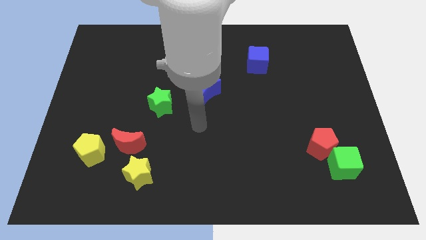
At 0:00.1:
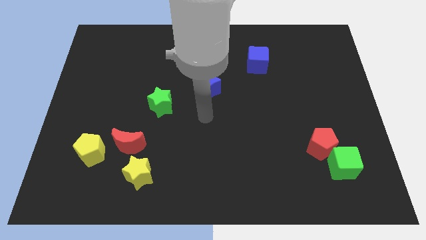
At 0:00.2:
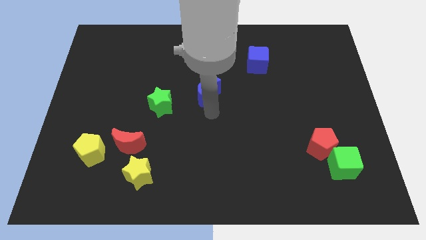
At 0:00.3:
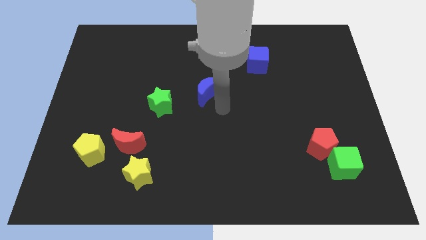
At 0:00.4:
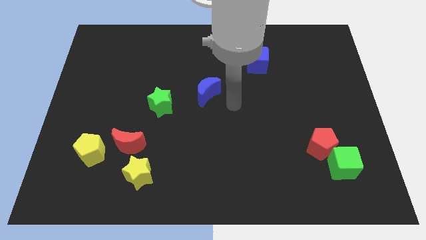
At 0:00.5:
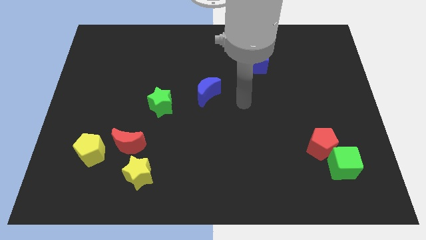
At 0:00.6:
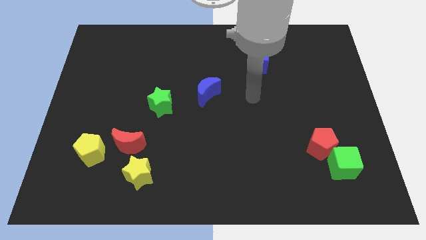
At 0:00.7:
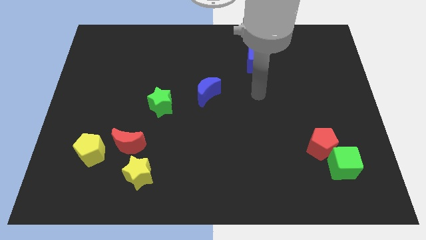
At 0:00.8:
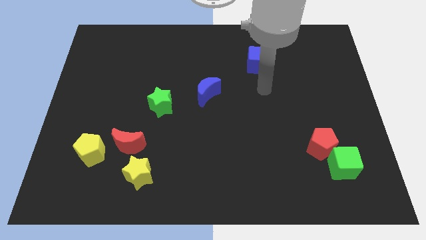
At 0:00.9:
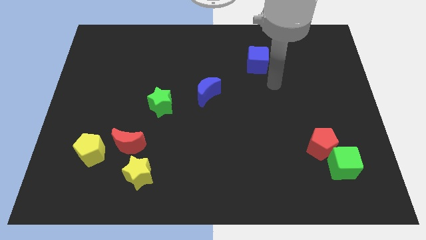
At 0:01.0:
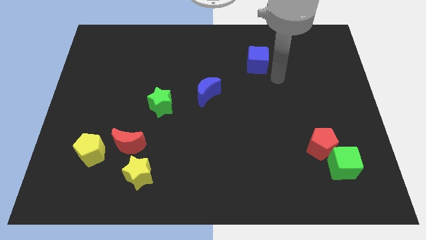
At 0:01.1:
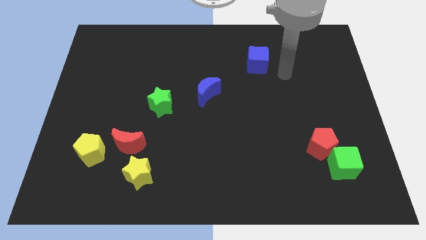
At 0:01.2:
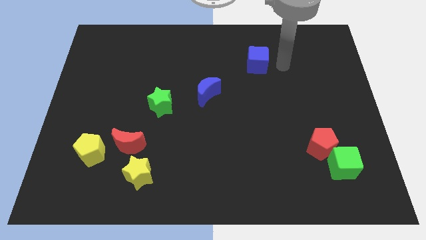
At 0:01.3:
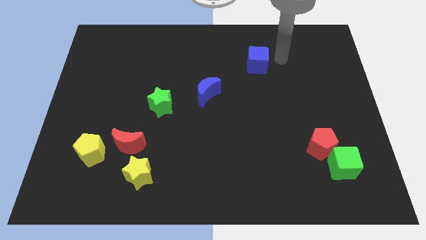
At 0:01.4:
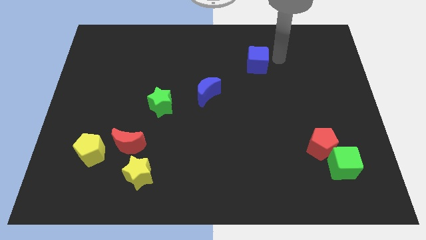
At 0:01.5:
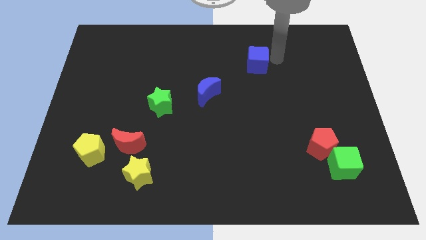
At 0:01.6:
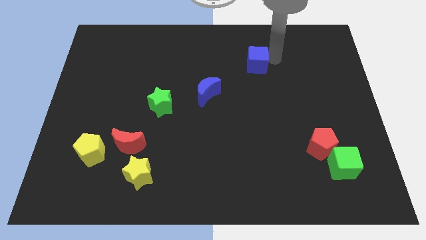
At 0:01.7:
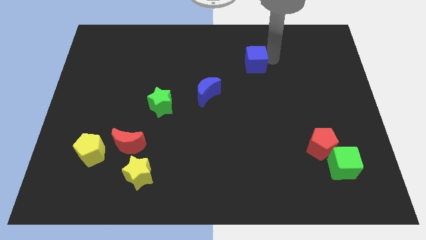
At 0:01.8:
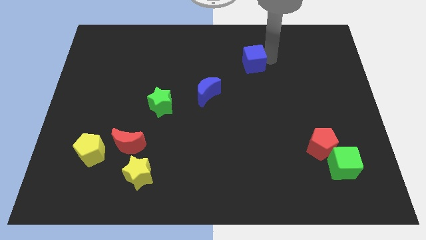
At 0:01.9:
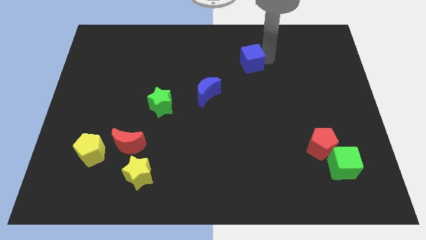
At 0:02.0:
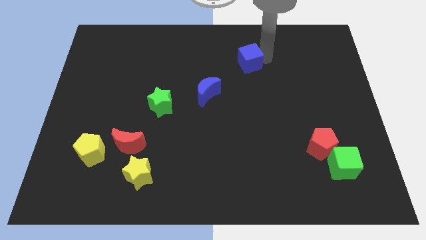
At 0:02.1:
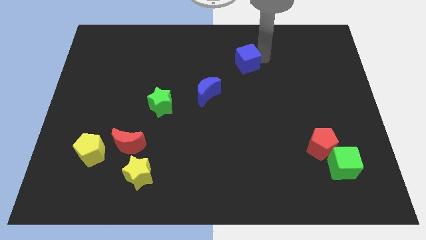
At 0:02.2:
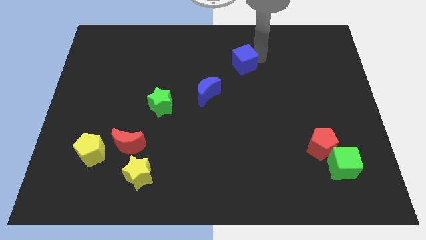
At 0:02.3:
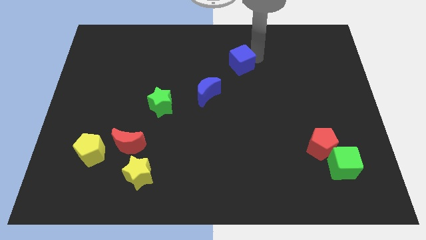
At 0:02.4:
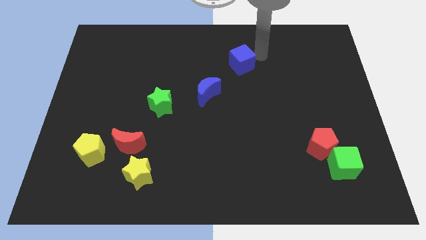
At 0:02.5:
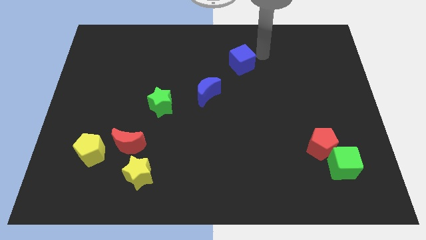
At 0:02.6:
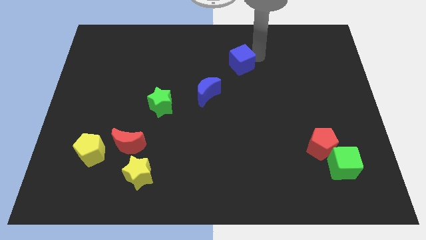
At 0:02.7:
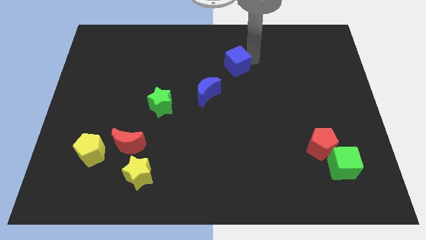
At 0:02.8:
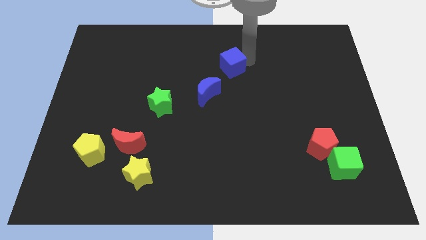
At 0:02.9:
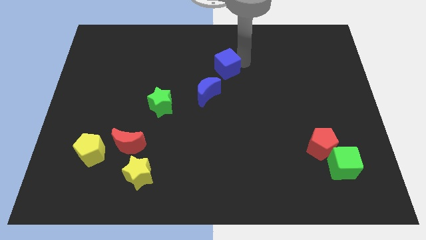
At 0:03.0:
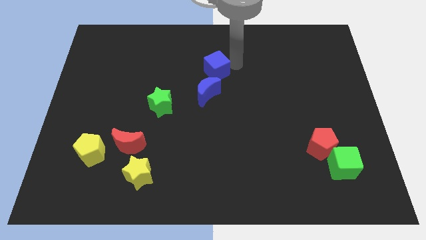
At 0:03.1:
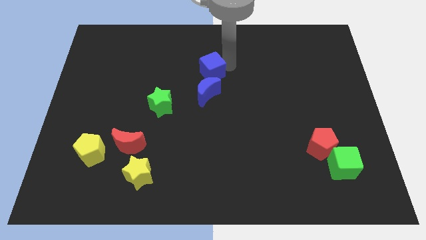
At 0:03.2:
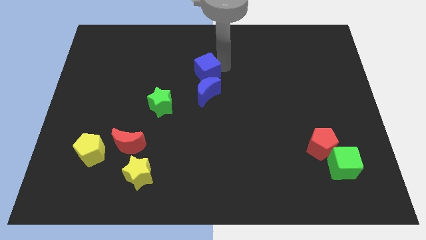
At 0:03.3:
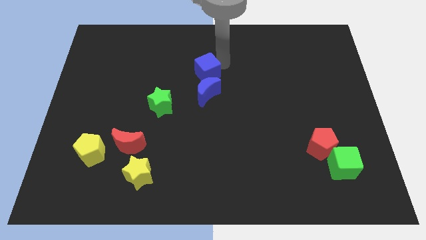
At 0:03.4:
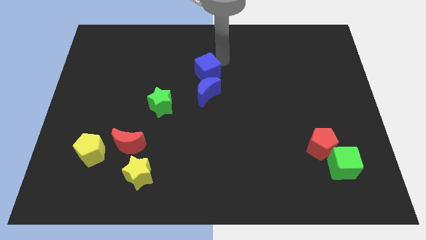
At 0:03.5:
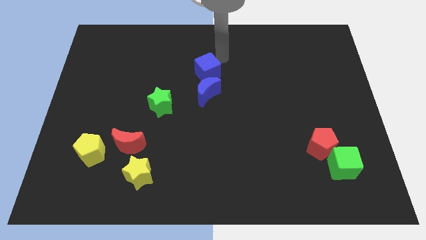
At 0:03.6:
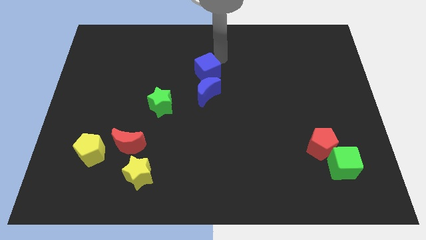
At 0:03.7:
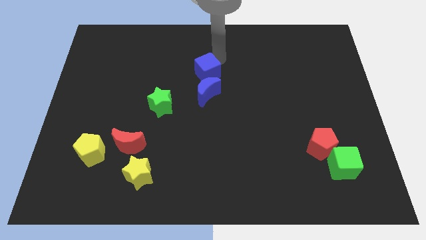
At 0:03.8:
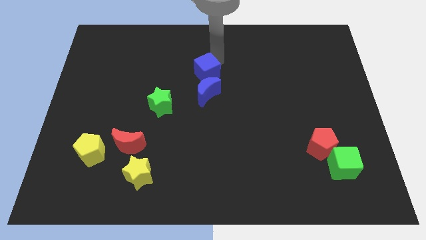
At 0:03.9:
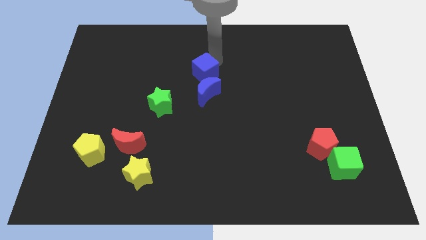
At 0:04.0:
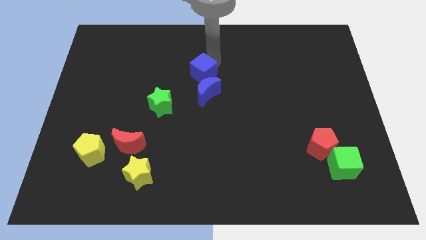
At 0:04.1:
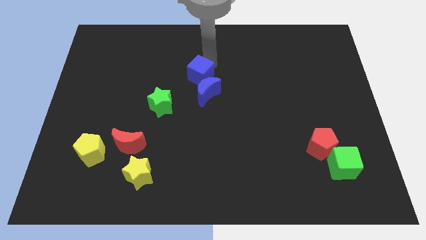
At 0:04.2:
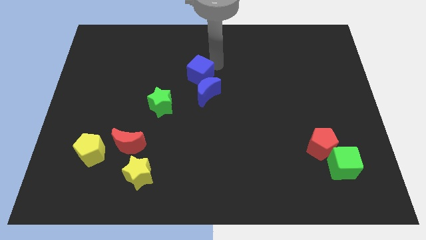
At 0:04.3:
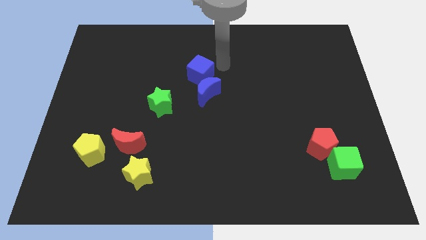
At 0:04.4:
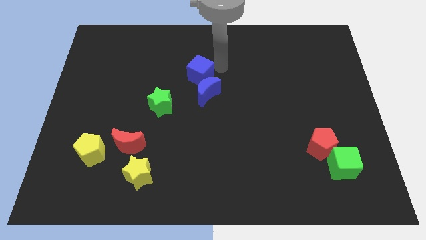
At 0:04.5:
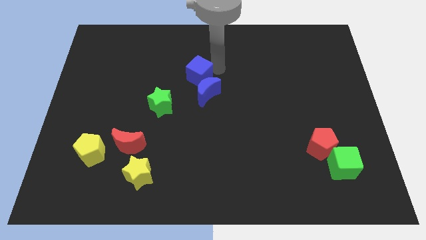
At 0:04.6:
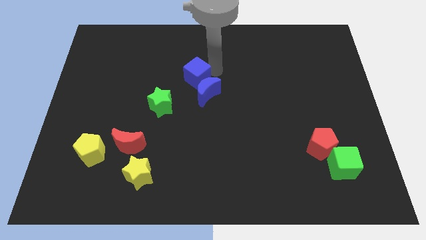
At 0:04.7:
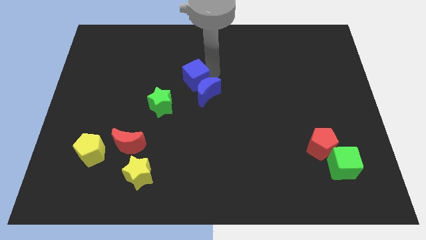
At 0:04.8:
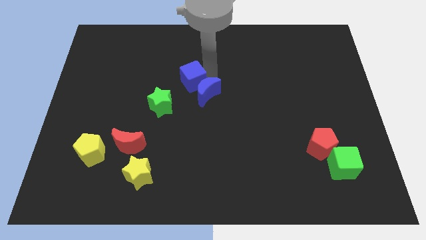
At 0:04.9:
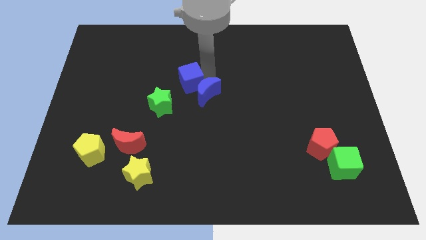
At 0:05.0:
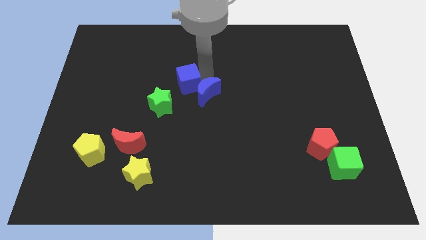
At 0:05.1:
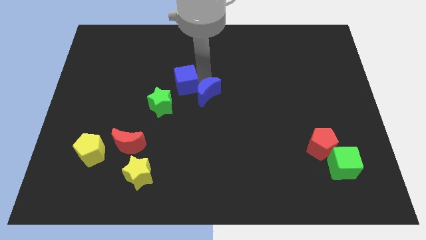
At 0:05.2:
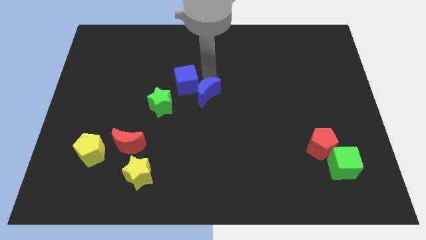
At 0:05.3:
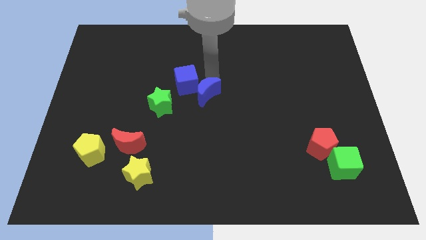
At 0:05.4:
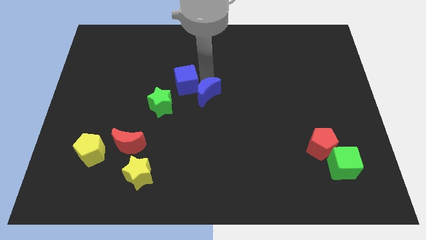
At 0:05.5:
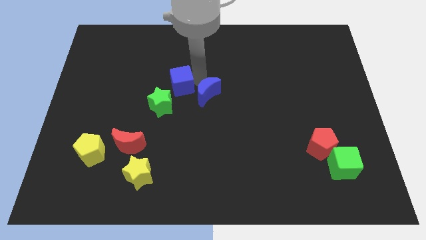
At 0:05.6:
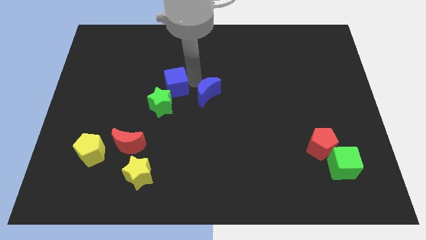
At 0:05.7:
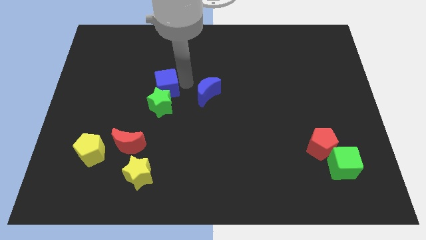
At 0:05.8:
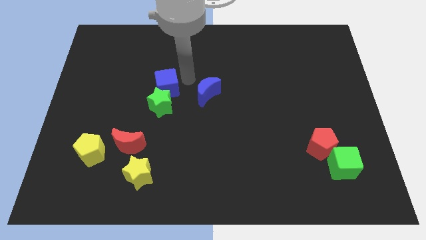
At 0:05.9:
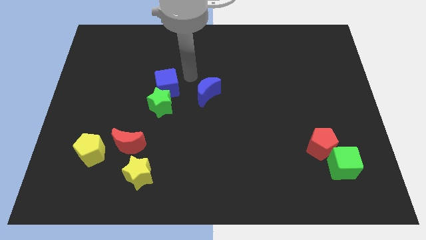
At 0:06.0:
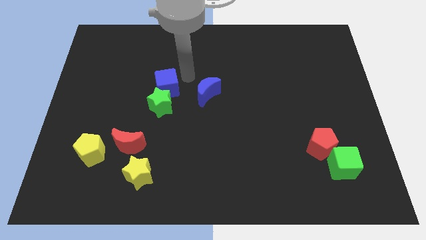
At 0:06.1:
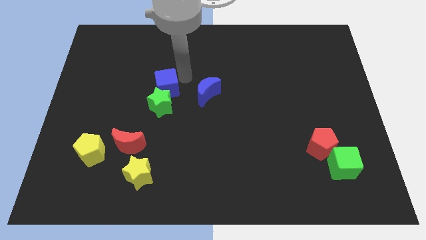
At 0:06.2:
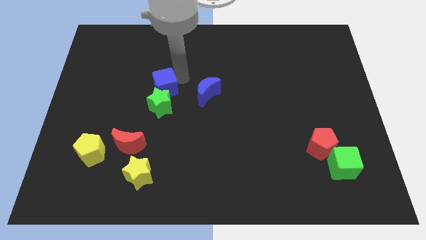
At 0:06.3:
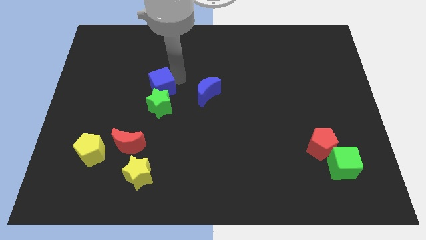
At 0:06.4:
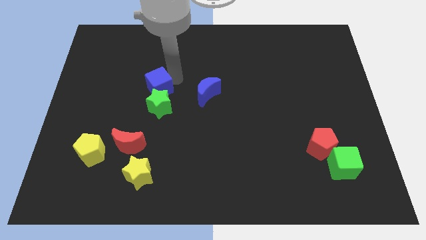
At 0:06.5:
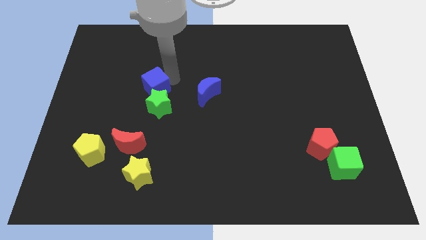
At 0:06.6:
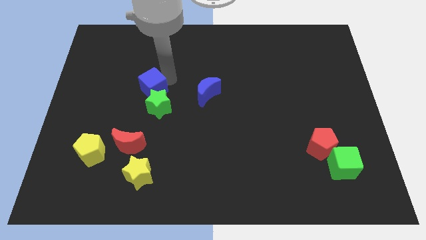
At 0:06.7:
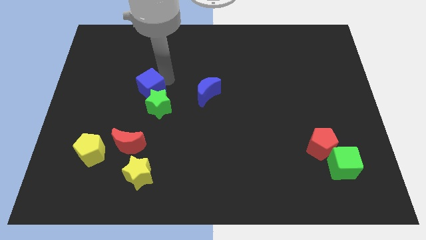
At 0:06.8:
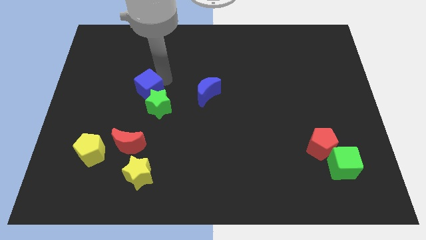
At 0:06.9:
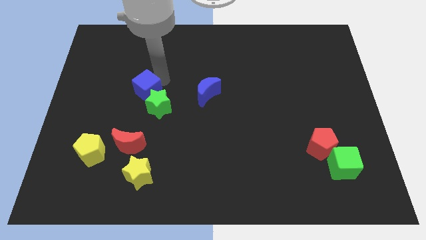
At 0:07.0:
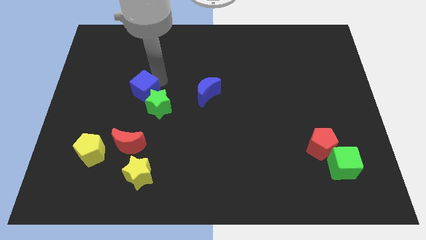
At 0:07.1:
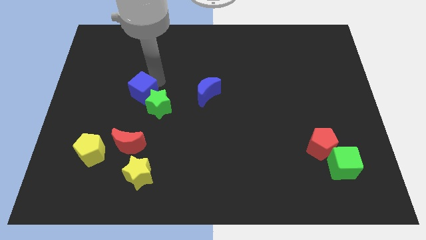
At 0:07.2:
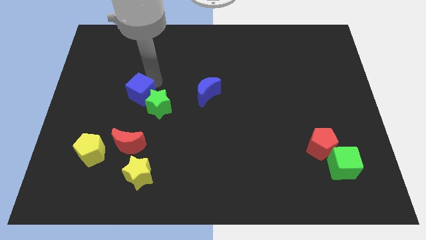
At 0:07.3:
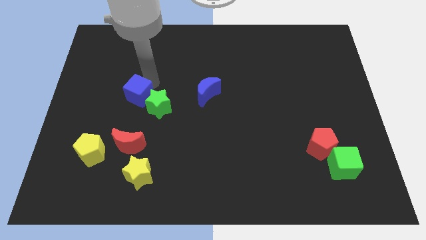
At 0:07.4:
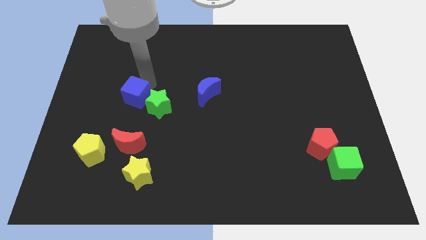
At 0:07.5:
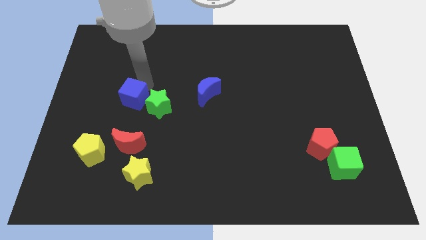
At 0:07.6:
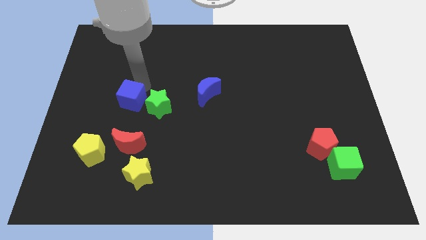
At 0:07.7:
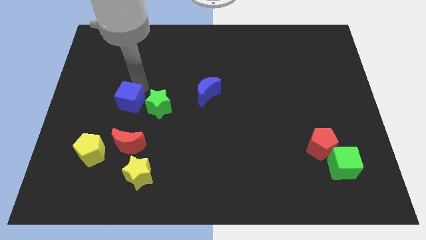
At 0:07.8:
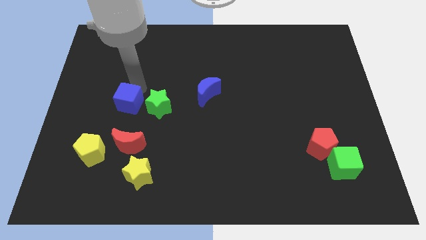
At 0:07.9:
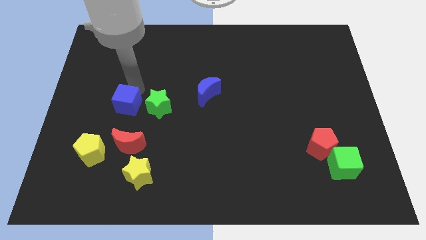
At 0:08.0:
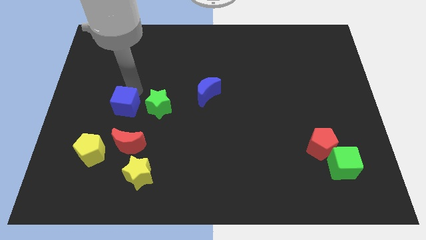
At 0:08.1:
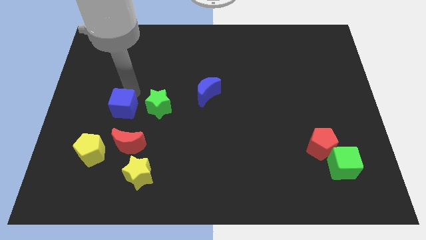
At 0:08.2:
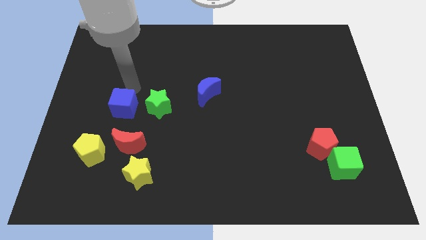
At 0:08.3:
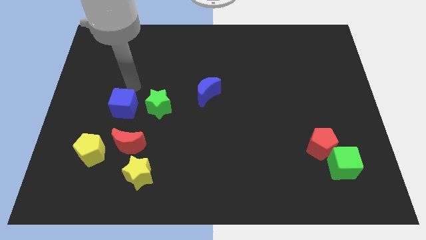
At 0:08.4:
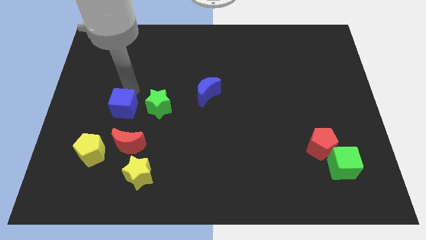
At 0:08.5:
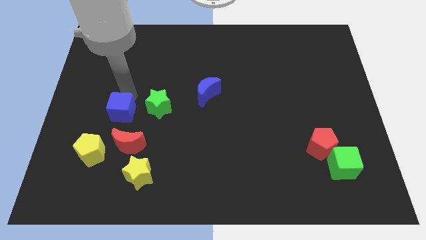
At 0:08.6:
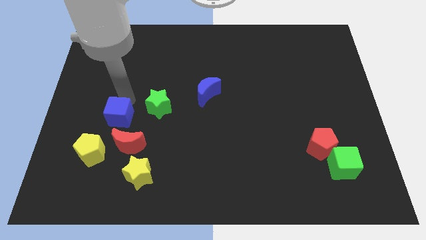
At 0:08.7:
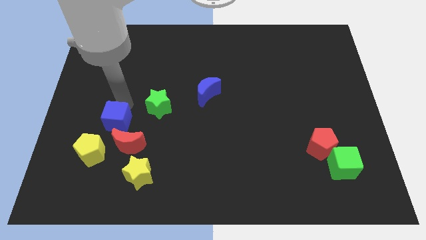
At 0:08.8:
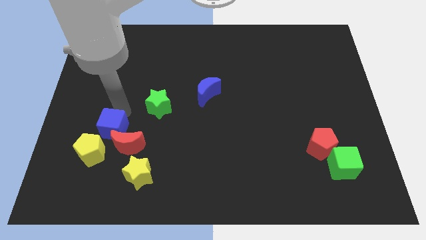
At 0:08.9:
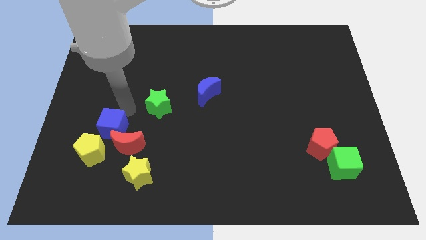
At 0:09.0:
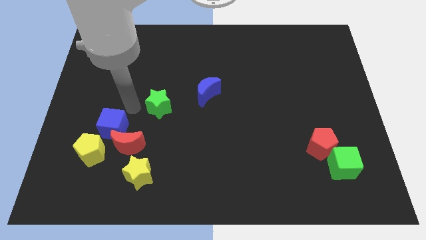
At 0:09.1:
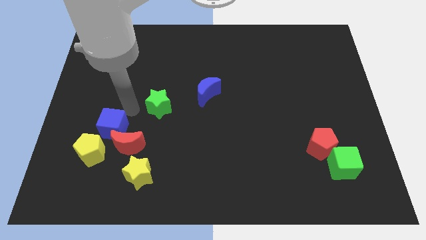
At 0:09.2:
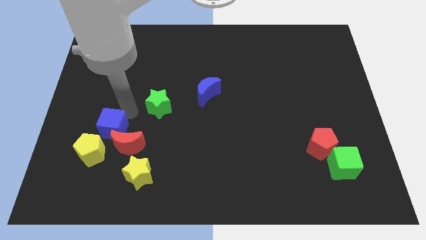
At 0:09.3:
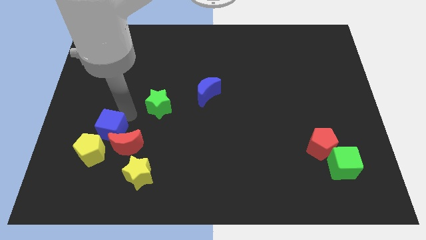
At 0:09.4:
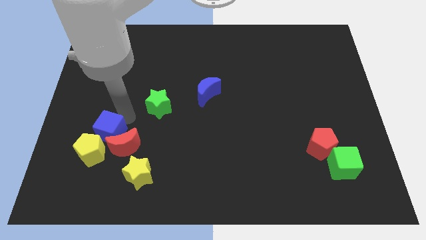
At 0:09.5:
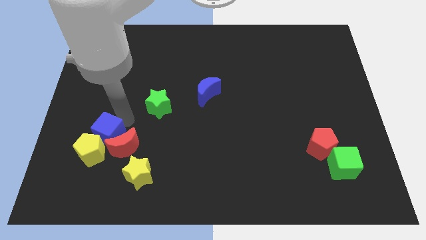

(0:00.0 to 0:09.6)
push the blue cube next to the yellow pentagon
